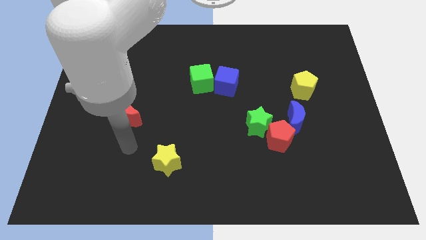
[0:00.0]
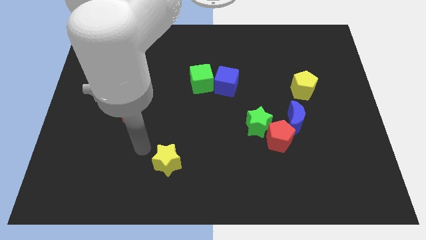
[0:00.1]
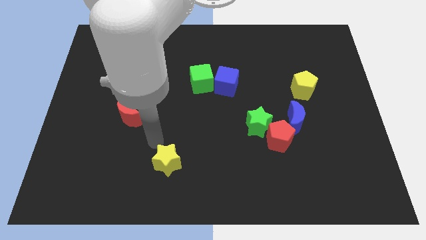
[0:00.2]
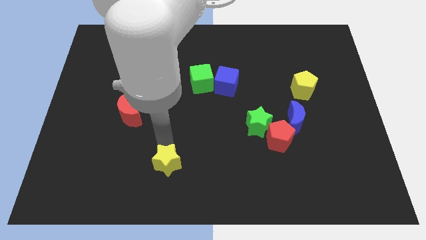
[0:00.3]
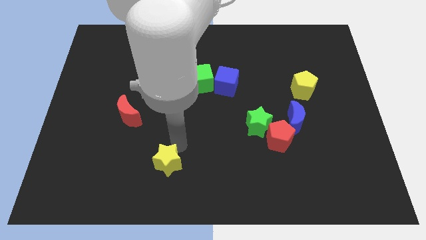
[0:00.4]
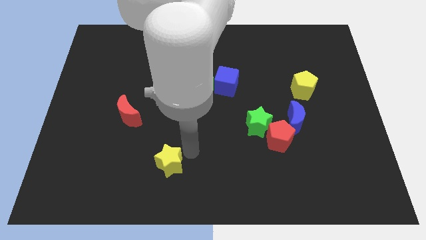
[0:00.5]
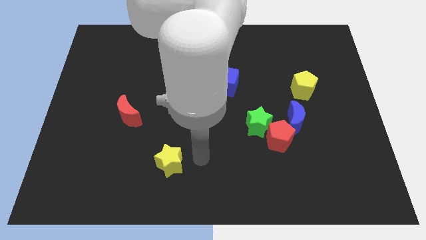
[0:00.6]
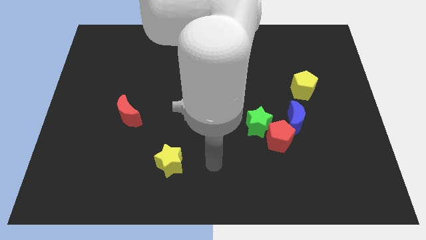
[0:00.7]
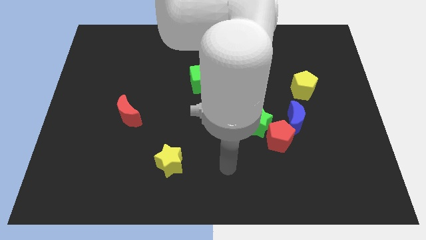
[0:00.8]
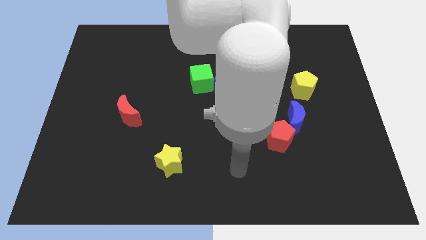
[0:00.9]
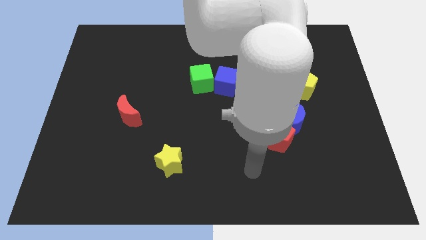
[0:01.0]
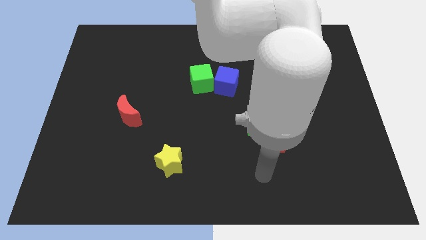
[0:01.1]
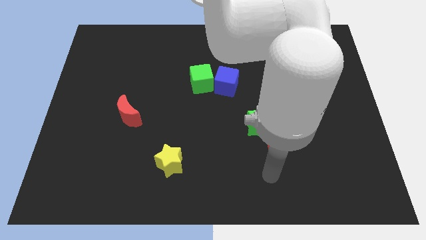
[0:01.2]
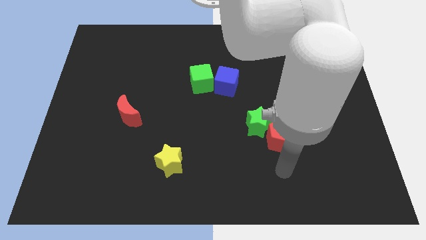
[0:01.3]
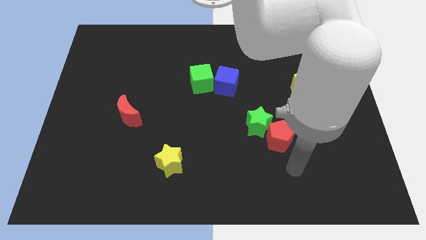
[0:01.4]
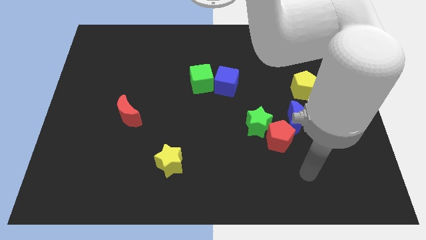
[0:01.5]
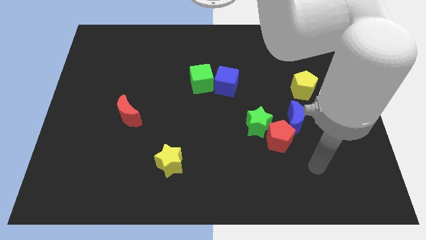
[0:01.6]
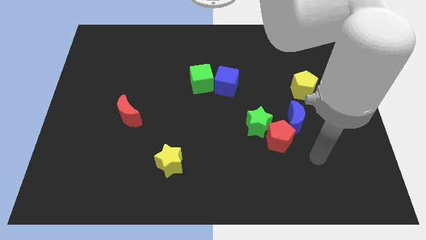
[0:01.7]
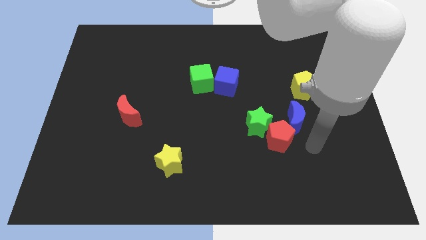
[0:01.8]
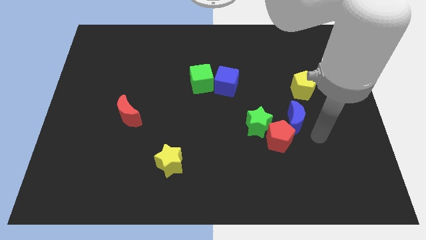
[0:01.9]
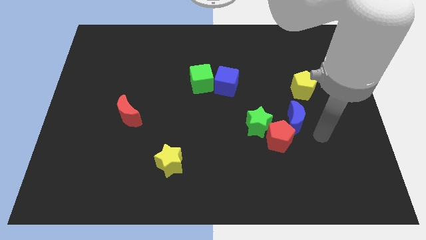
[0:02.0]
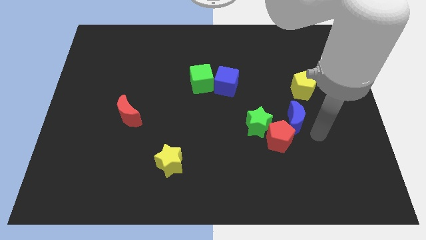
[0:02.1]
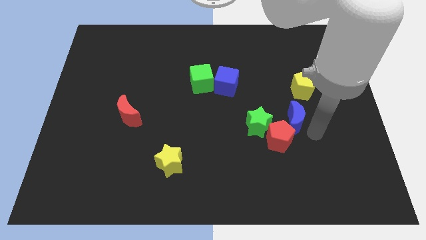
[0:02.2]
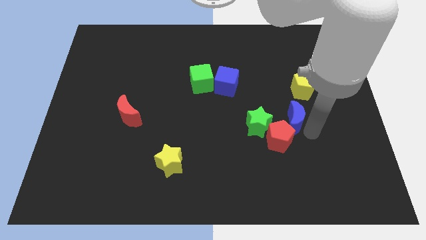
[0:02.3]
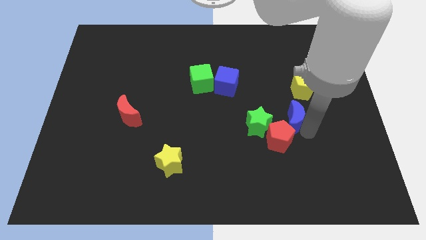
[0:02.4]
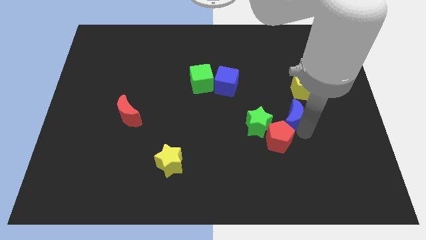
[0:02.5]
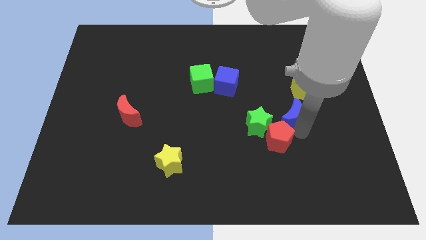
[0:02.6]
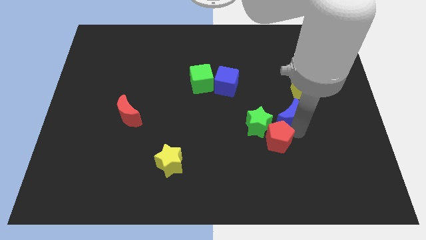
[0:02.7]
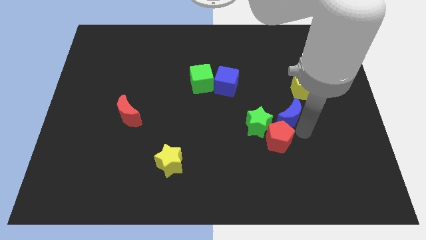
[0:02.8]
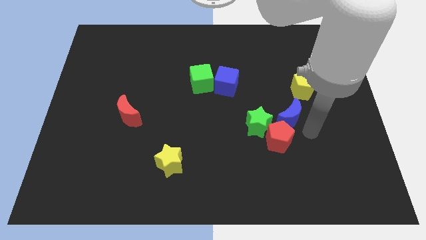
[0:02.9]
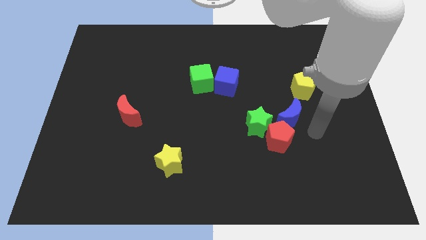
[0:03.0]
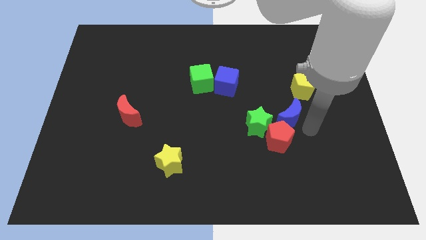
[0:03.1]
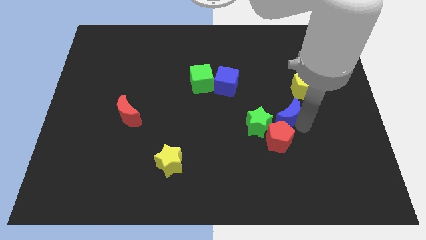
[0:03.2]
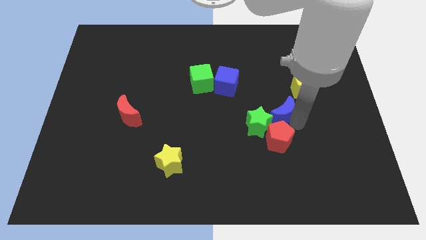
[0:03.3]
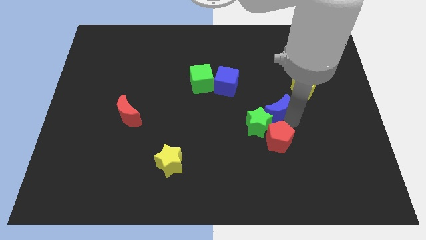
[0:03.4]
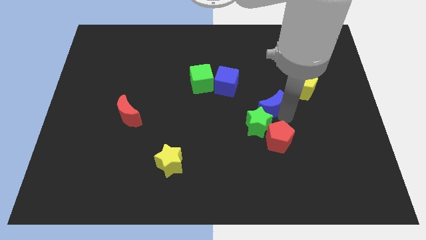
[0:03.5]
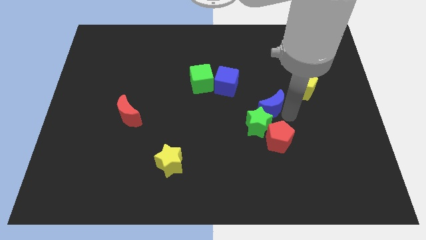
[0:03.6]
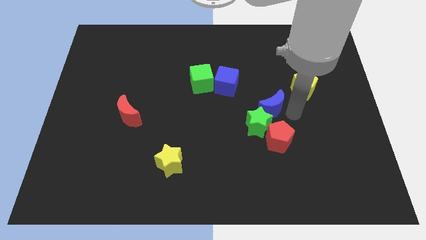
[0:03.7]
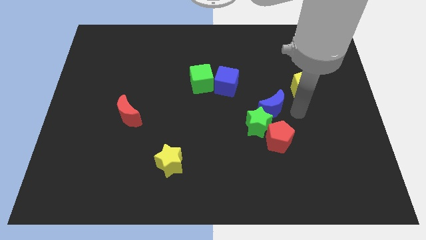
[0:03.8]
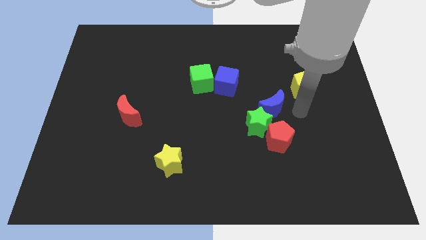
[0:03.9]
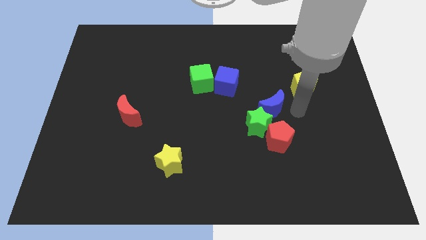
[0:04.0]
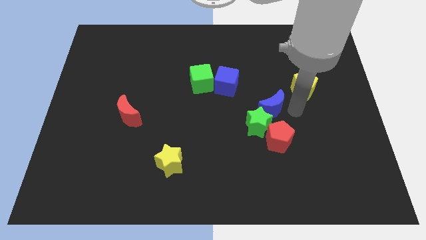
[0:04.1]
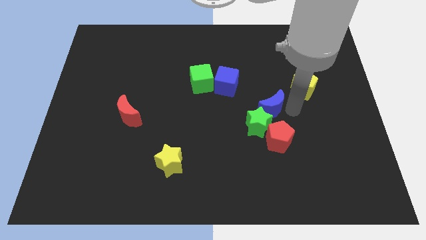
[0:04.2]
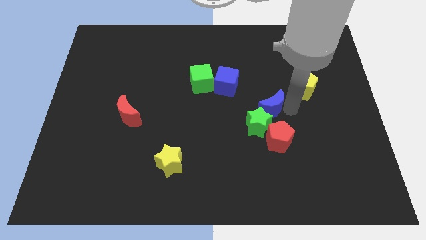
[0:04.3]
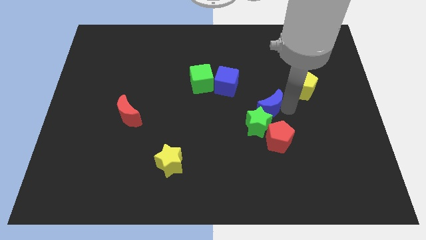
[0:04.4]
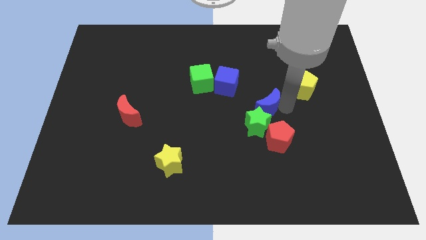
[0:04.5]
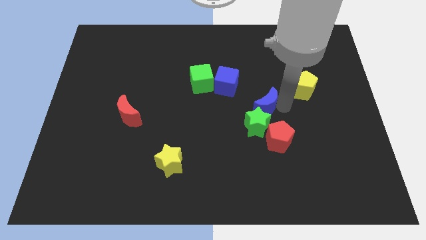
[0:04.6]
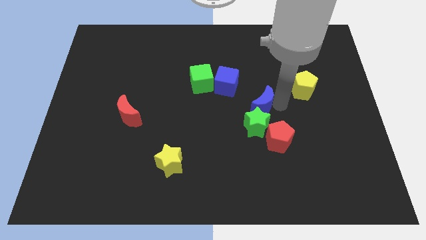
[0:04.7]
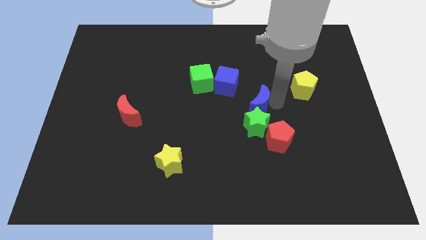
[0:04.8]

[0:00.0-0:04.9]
move the blue moon left a bit

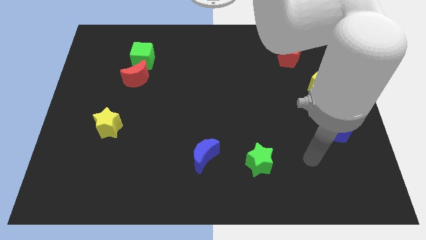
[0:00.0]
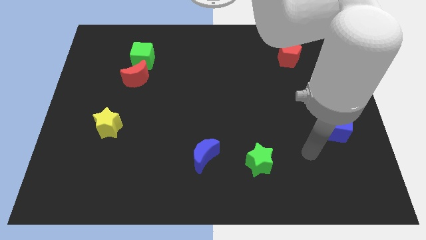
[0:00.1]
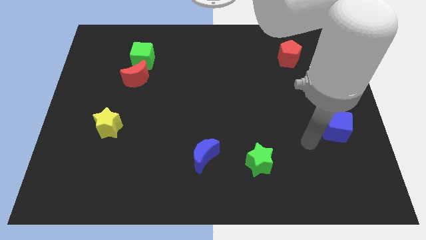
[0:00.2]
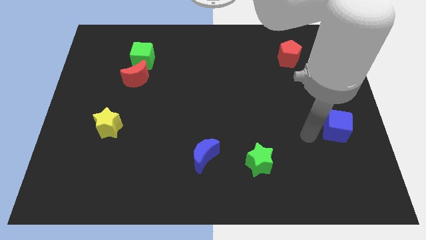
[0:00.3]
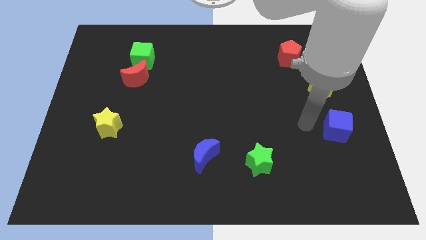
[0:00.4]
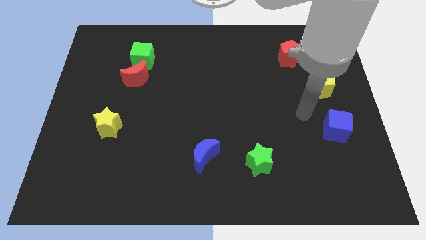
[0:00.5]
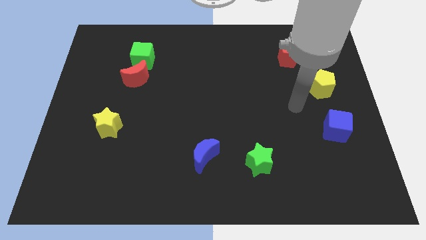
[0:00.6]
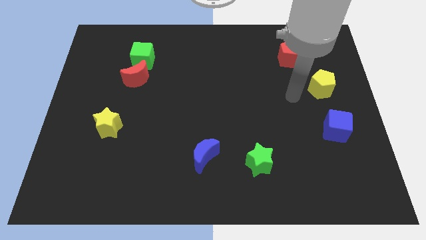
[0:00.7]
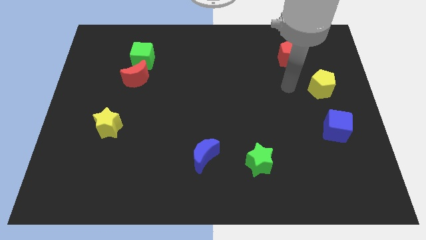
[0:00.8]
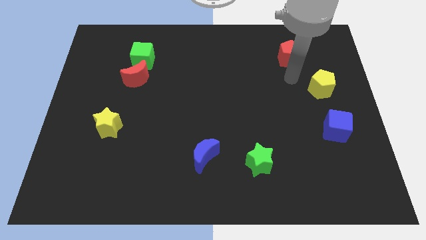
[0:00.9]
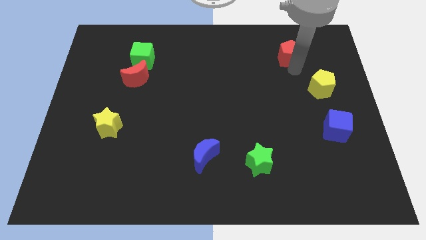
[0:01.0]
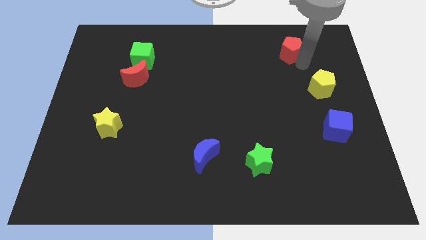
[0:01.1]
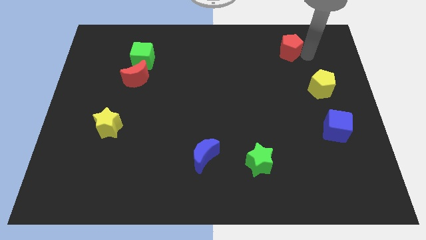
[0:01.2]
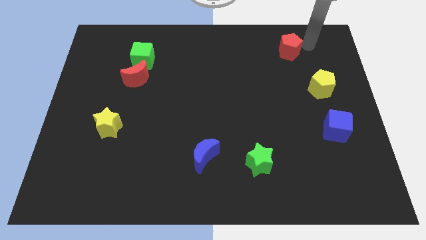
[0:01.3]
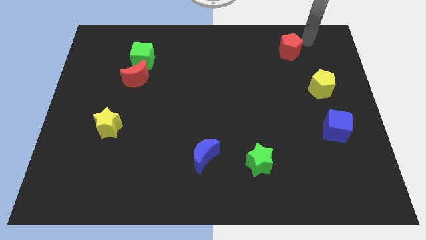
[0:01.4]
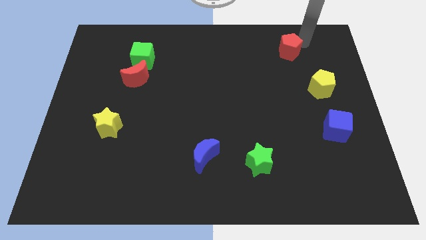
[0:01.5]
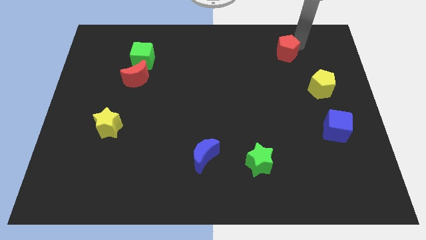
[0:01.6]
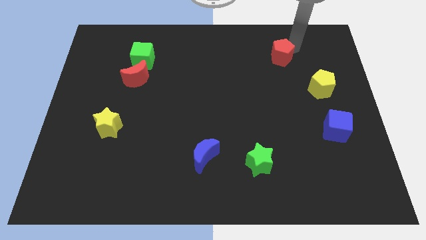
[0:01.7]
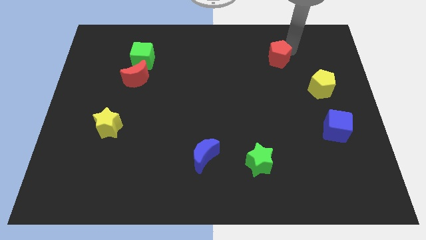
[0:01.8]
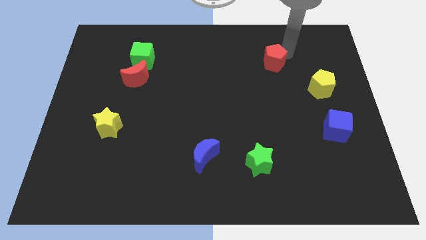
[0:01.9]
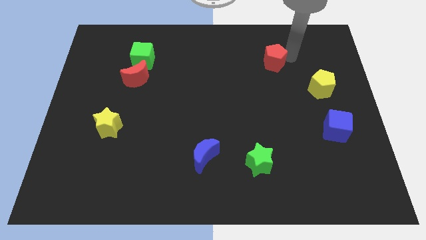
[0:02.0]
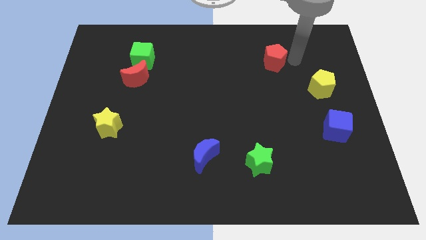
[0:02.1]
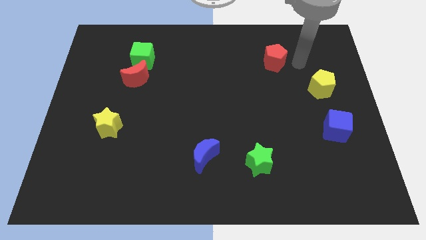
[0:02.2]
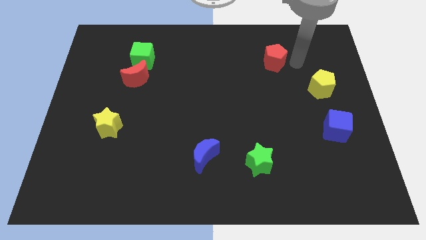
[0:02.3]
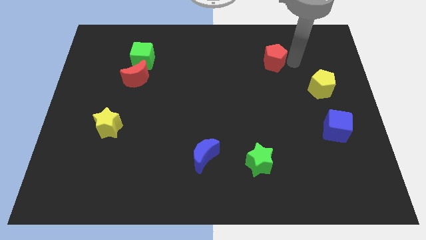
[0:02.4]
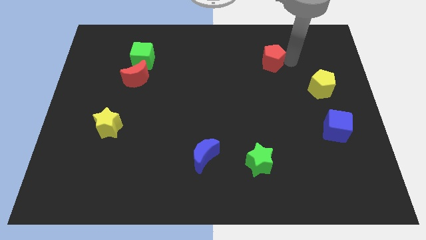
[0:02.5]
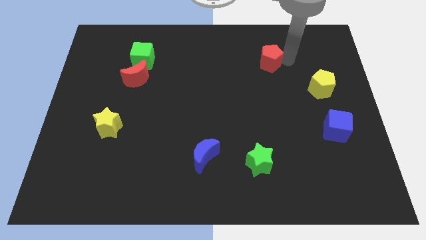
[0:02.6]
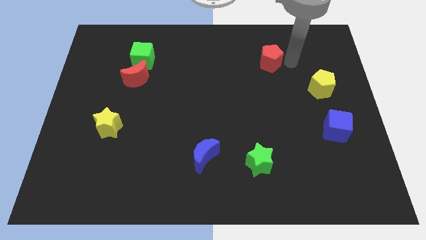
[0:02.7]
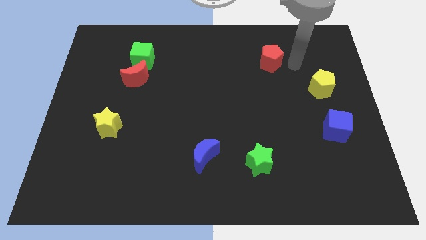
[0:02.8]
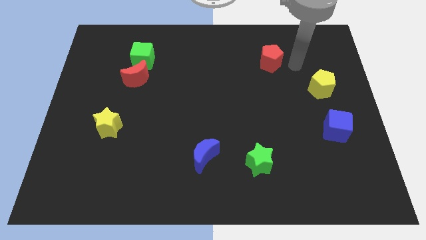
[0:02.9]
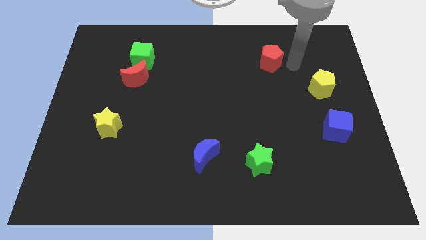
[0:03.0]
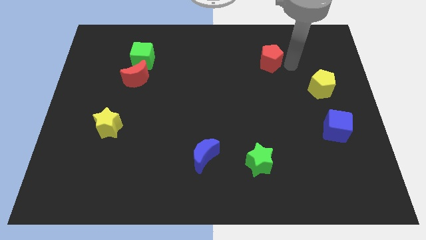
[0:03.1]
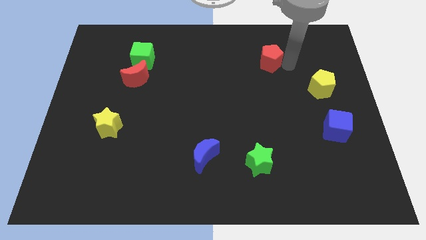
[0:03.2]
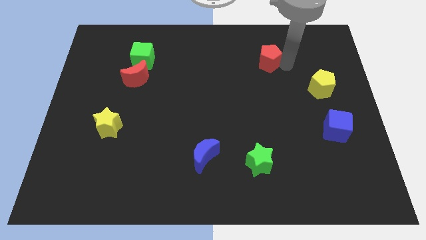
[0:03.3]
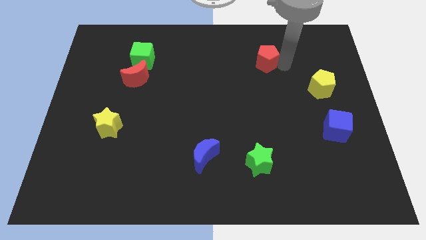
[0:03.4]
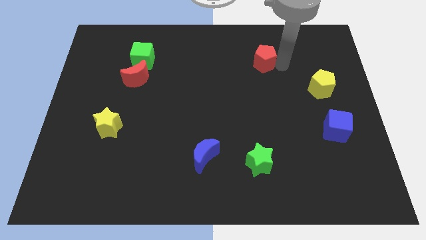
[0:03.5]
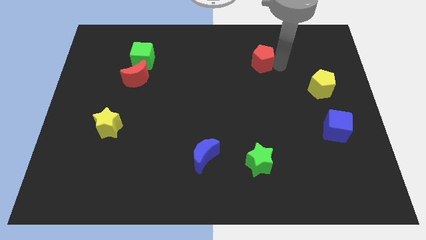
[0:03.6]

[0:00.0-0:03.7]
slightly slide the red pentagon to the left
